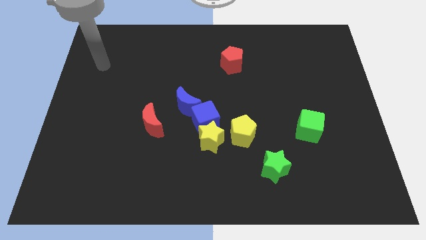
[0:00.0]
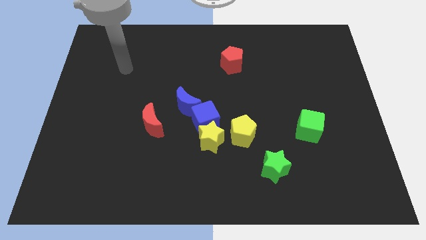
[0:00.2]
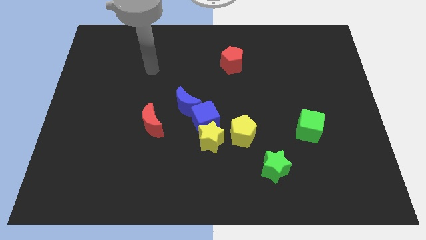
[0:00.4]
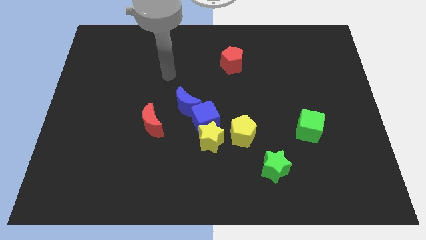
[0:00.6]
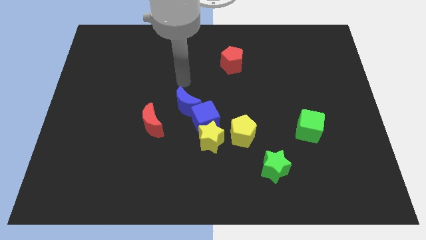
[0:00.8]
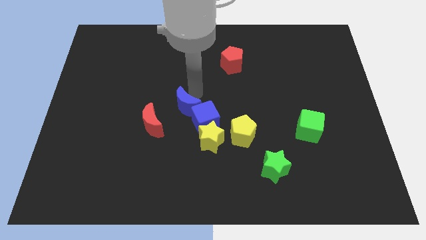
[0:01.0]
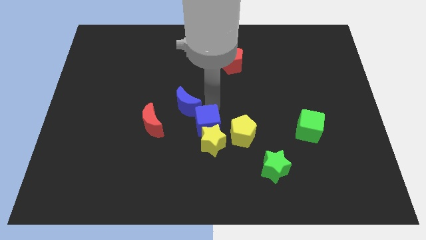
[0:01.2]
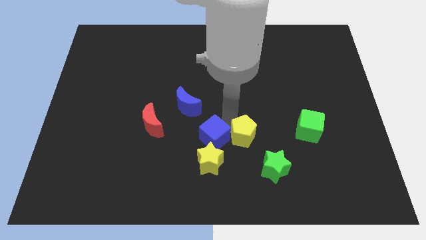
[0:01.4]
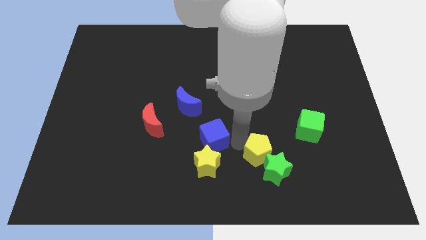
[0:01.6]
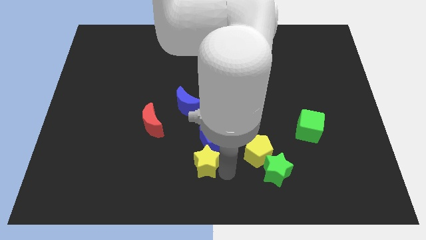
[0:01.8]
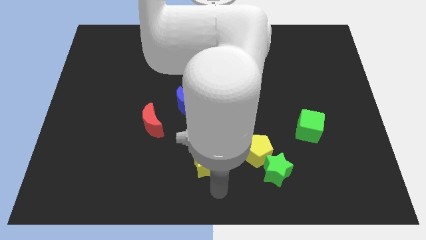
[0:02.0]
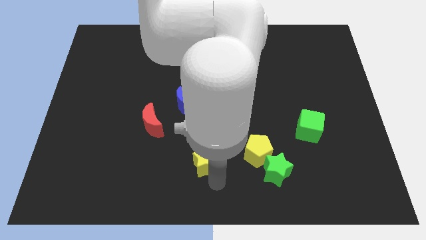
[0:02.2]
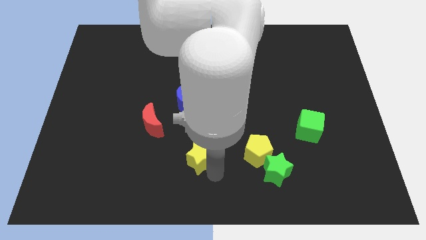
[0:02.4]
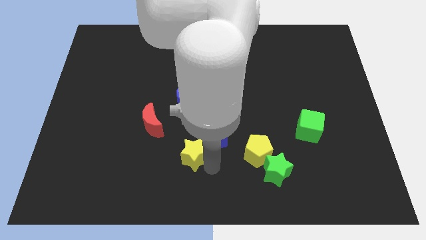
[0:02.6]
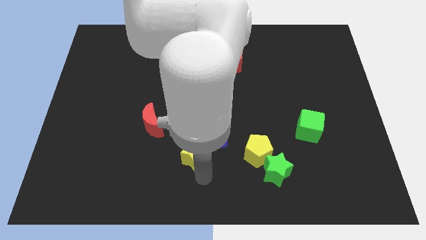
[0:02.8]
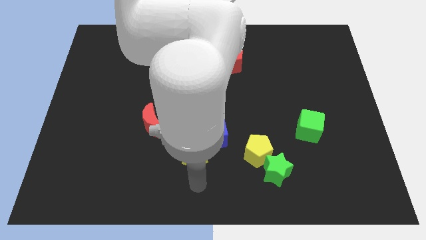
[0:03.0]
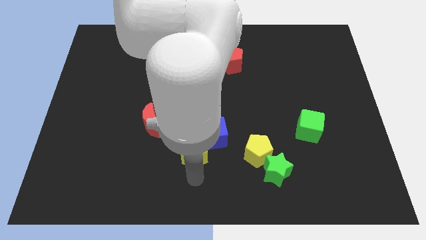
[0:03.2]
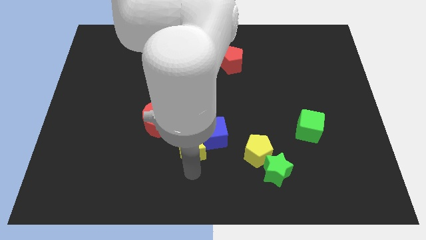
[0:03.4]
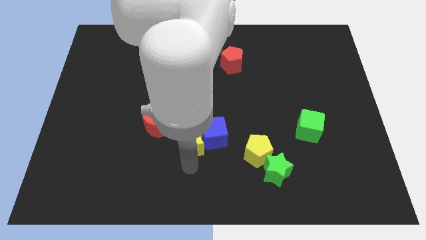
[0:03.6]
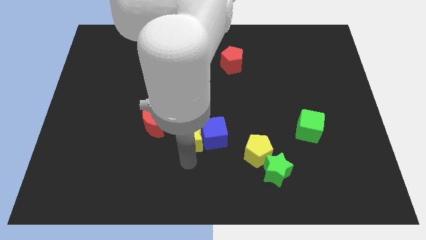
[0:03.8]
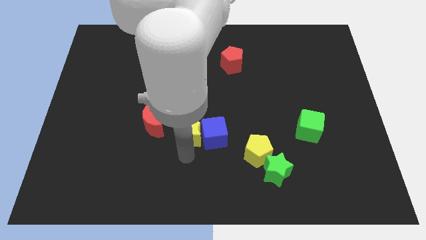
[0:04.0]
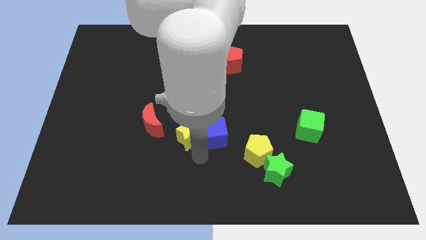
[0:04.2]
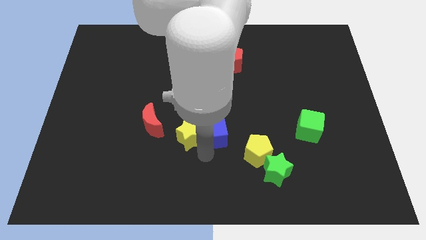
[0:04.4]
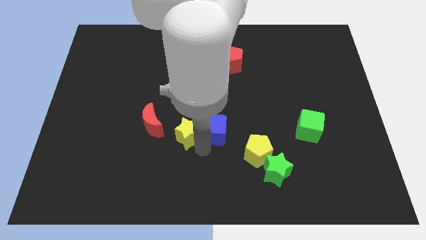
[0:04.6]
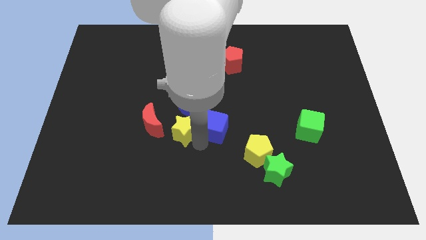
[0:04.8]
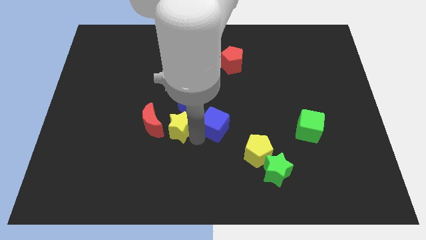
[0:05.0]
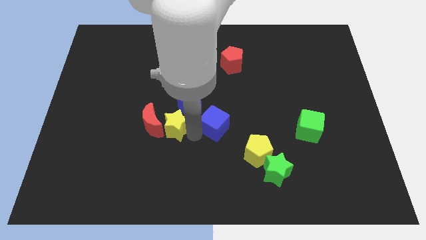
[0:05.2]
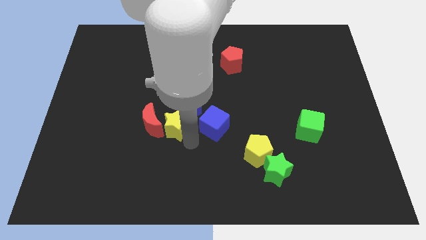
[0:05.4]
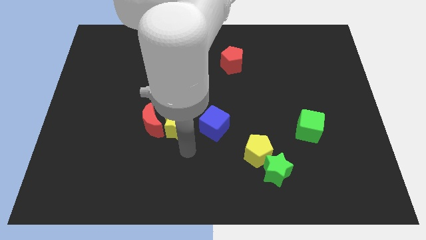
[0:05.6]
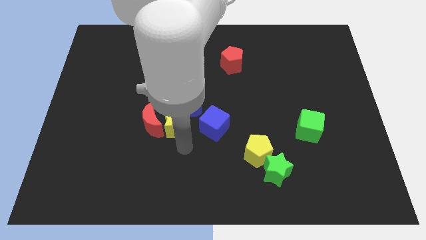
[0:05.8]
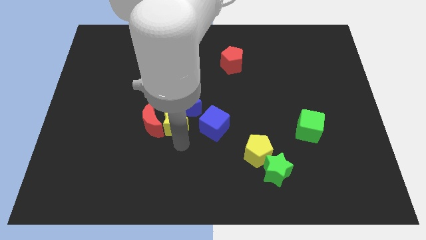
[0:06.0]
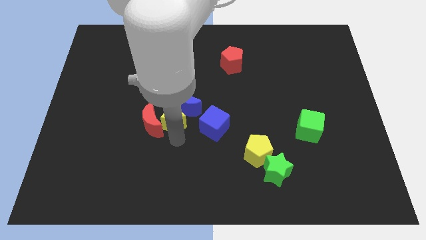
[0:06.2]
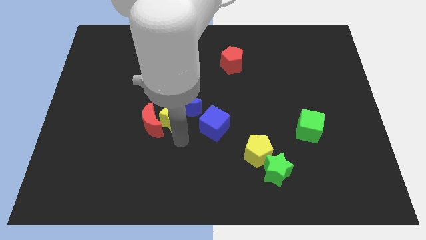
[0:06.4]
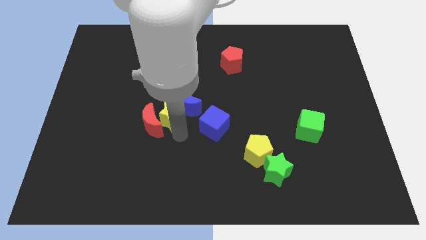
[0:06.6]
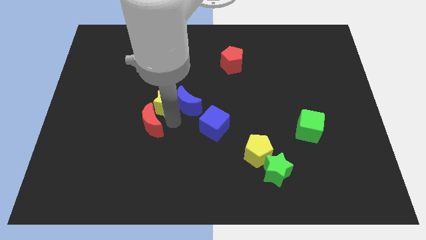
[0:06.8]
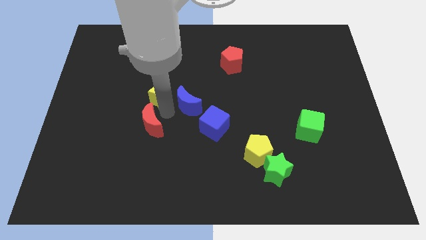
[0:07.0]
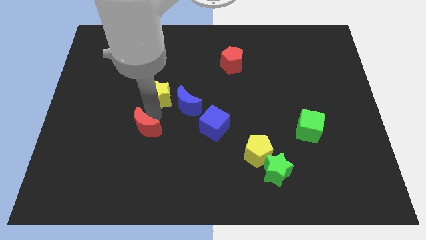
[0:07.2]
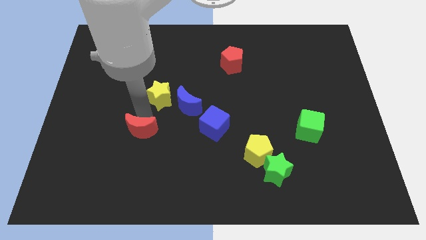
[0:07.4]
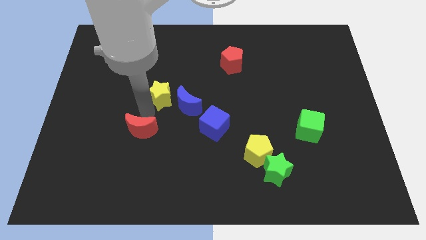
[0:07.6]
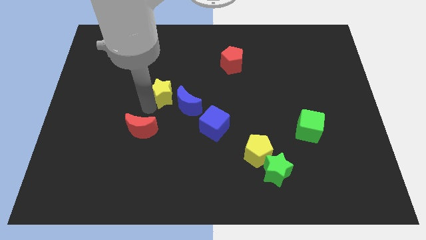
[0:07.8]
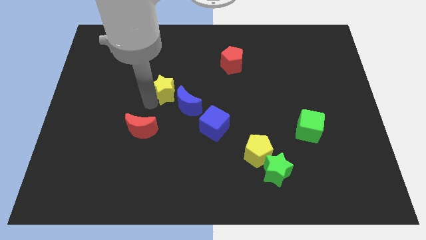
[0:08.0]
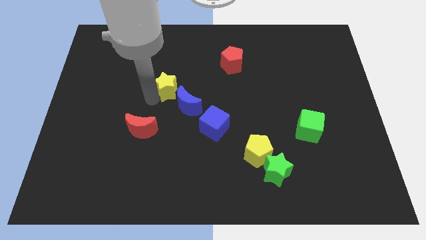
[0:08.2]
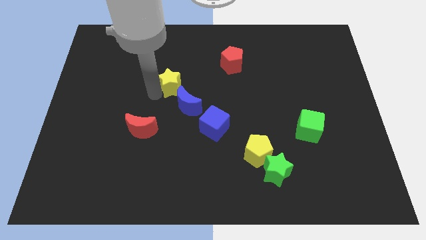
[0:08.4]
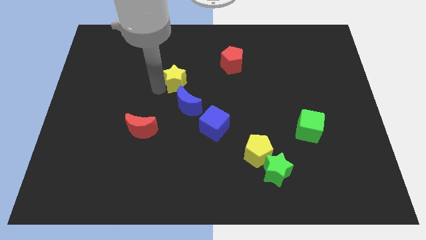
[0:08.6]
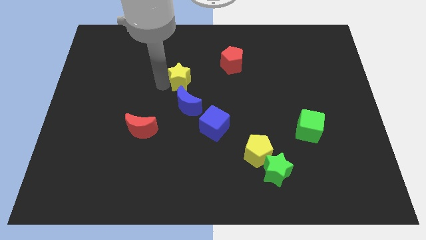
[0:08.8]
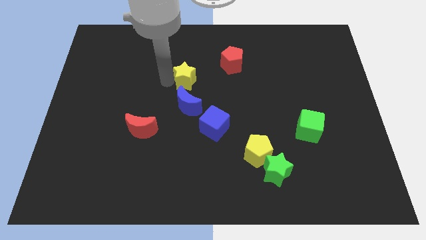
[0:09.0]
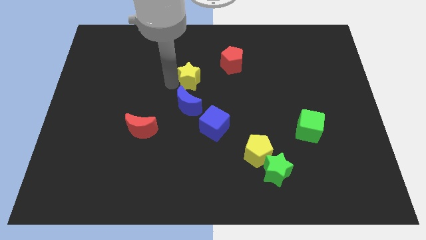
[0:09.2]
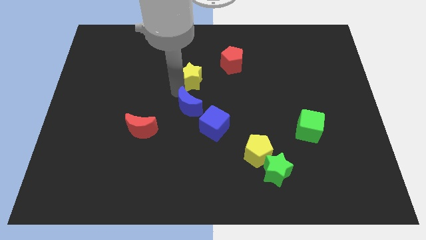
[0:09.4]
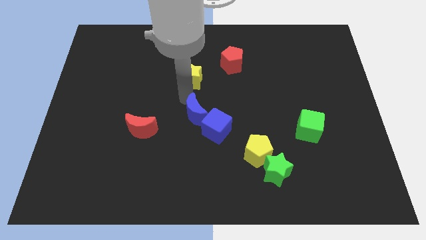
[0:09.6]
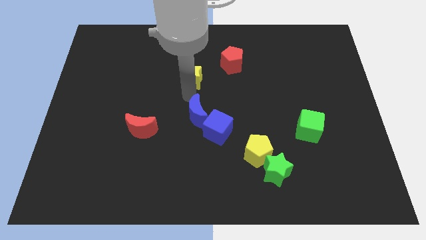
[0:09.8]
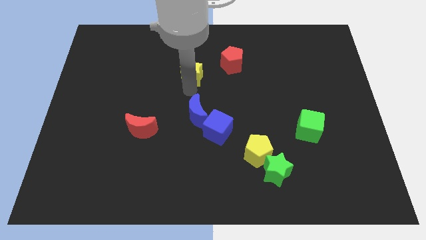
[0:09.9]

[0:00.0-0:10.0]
move the yellow star just left of the red pentagon

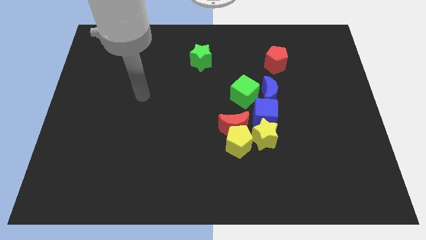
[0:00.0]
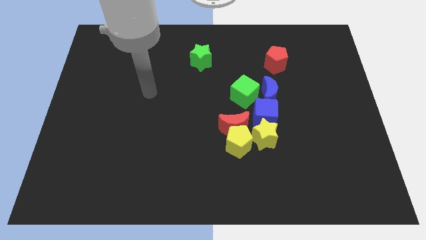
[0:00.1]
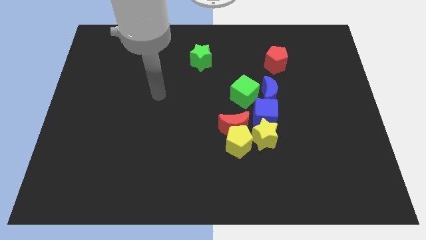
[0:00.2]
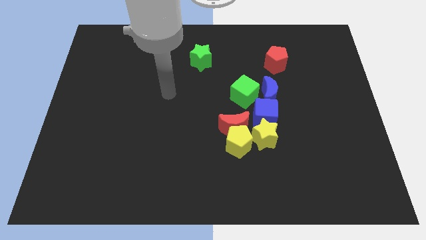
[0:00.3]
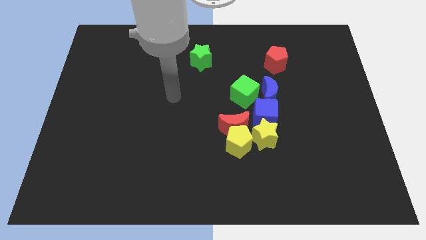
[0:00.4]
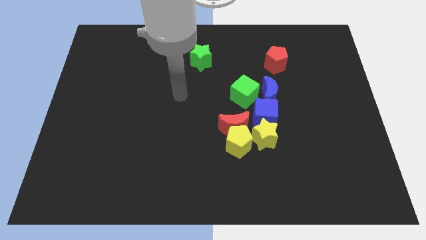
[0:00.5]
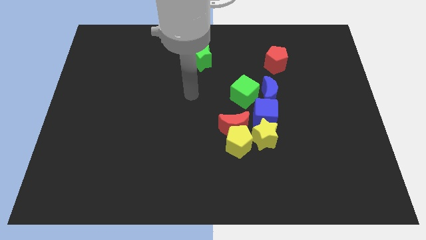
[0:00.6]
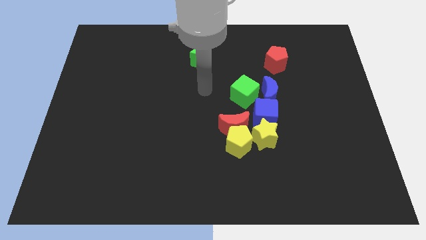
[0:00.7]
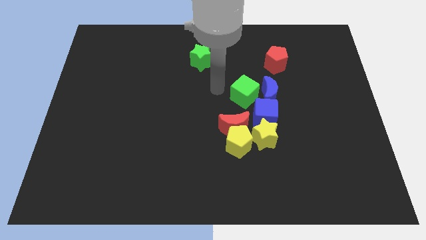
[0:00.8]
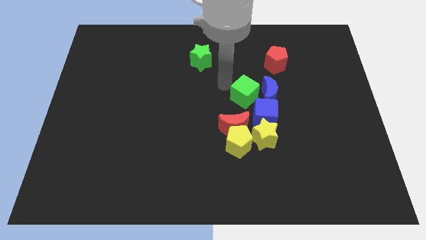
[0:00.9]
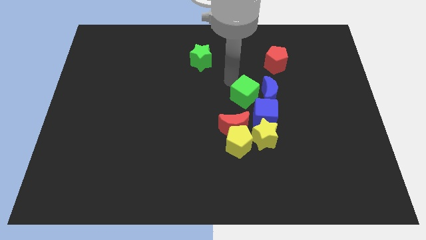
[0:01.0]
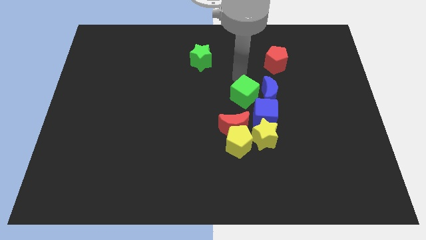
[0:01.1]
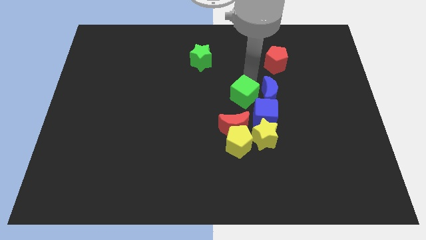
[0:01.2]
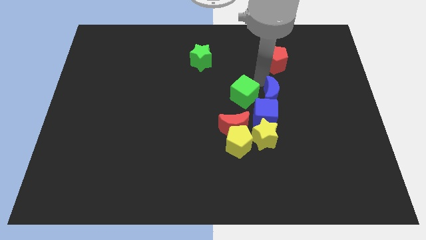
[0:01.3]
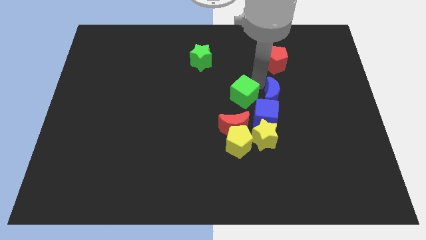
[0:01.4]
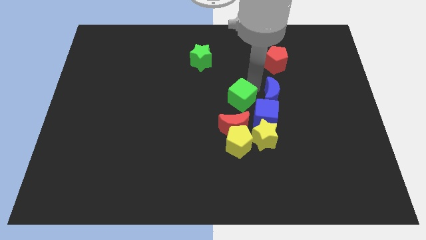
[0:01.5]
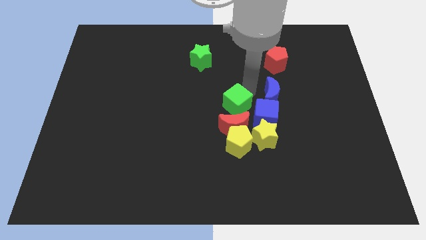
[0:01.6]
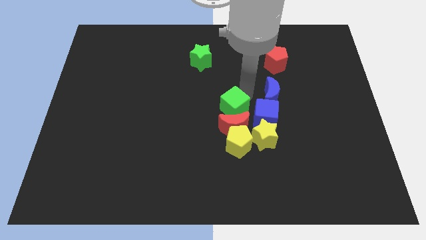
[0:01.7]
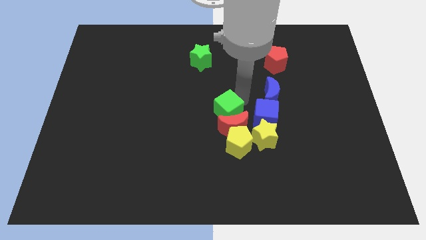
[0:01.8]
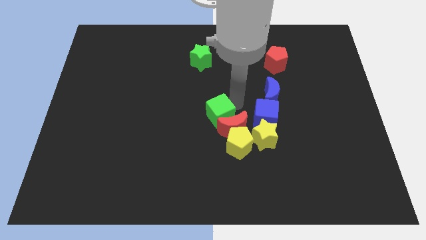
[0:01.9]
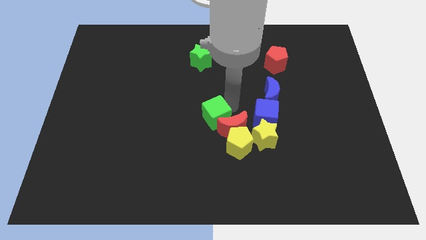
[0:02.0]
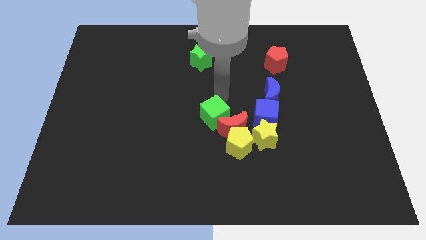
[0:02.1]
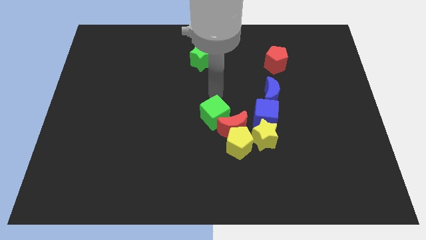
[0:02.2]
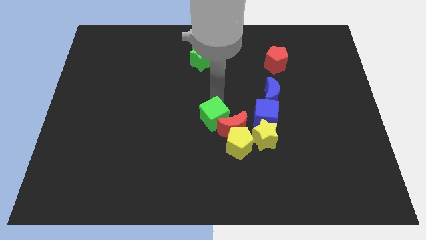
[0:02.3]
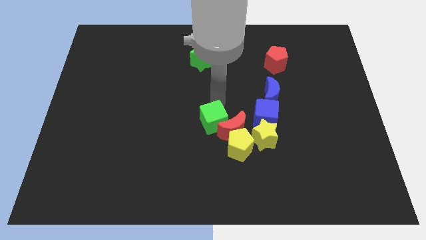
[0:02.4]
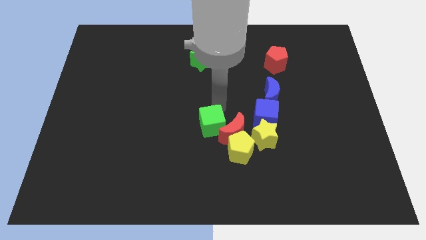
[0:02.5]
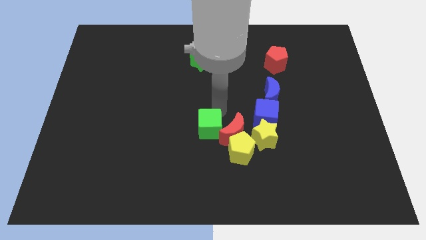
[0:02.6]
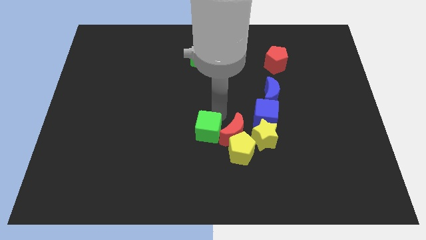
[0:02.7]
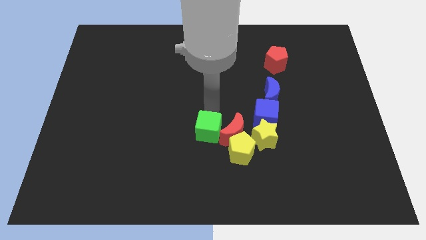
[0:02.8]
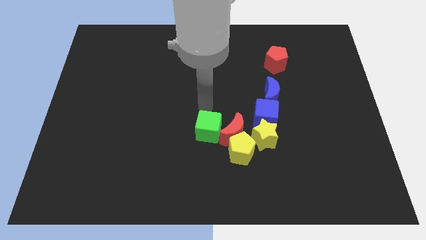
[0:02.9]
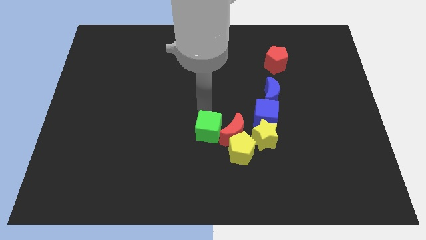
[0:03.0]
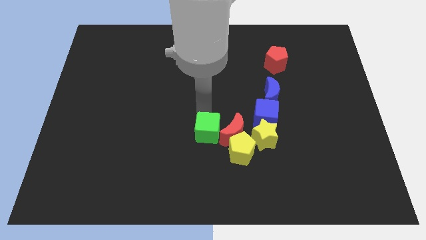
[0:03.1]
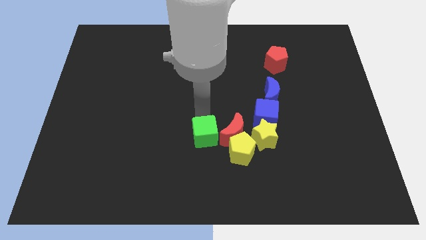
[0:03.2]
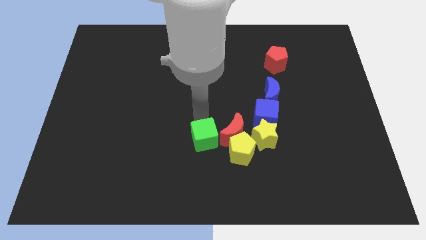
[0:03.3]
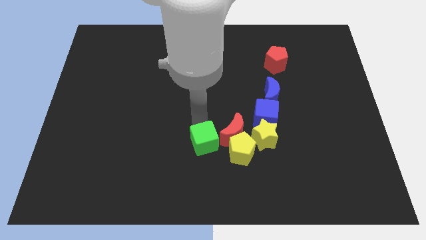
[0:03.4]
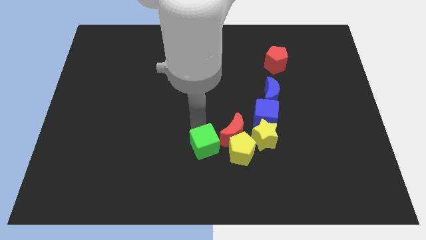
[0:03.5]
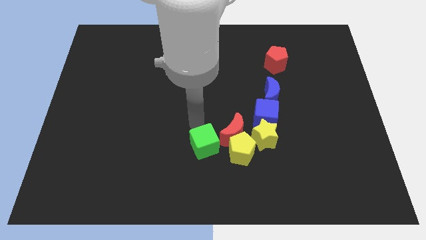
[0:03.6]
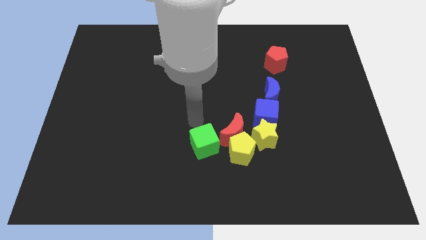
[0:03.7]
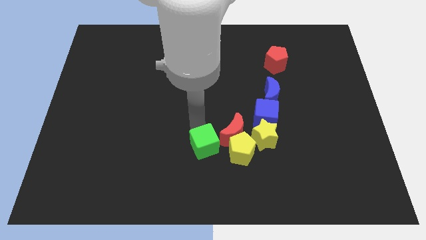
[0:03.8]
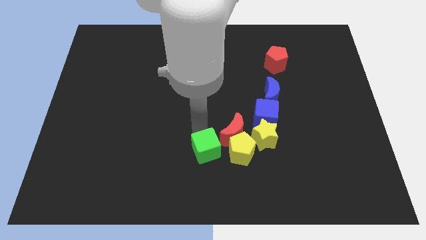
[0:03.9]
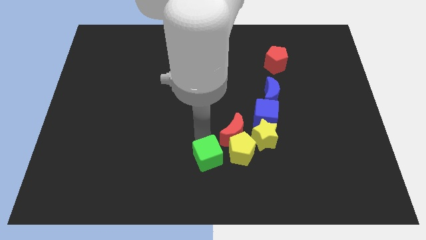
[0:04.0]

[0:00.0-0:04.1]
slide the green cube to the bottom left side of the yellow pentagon
